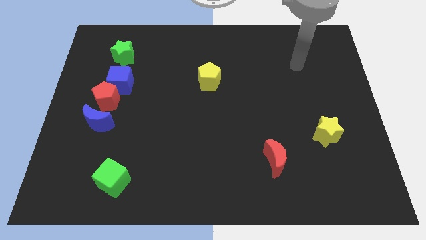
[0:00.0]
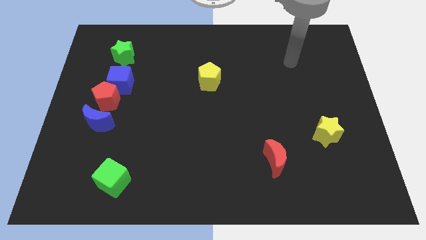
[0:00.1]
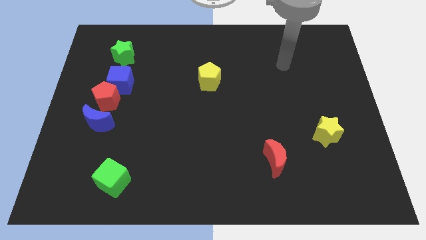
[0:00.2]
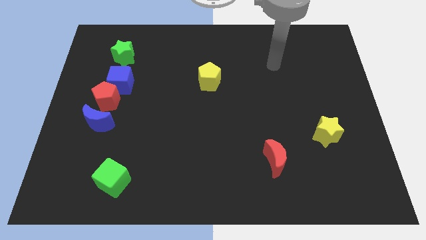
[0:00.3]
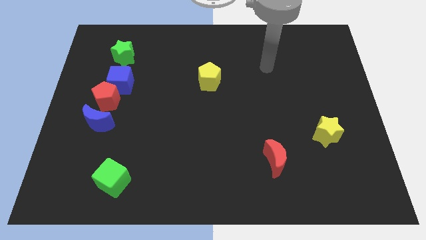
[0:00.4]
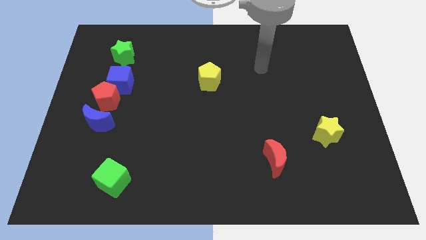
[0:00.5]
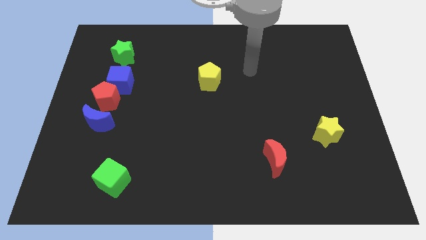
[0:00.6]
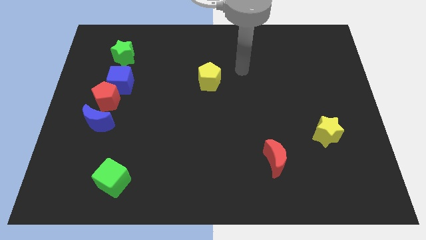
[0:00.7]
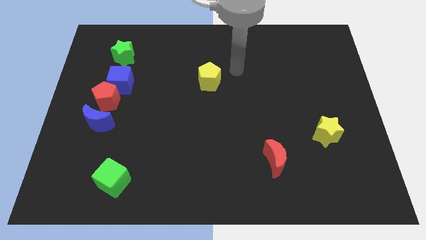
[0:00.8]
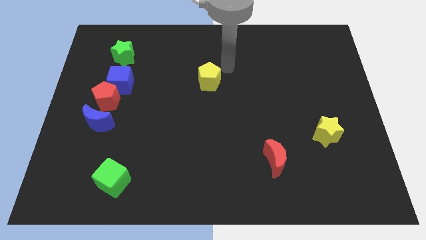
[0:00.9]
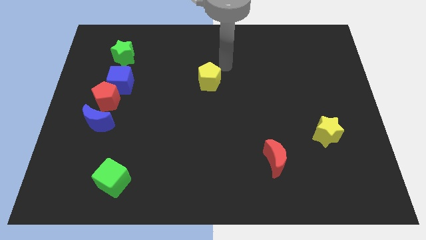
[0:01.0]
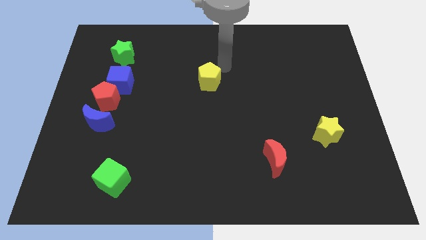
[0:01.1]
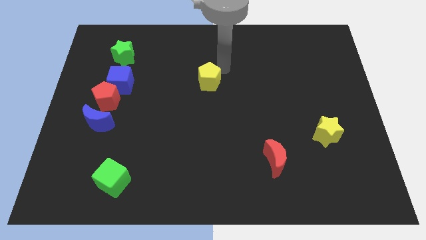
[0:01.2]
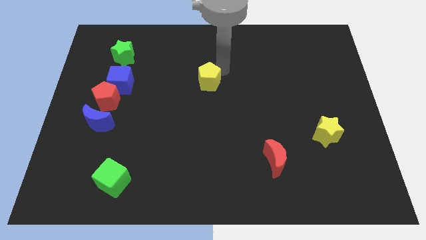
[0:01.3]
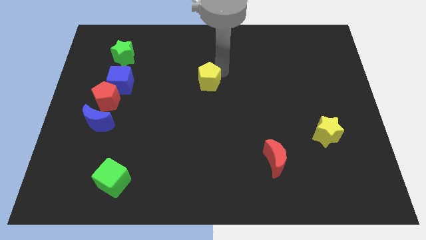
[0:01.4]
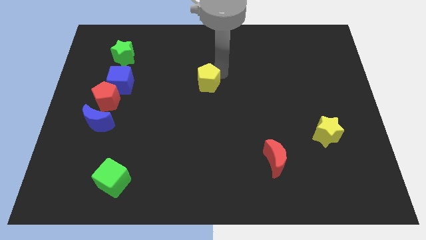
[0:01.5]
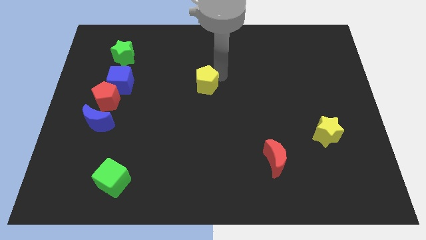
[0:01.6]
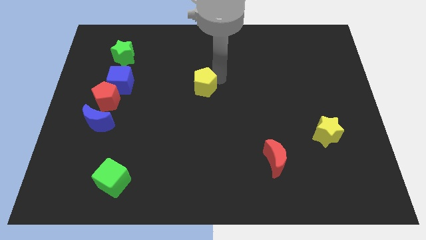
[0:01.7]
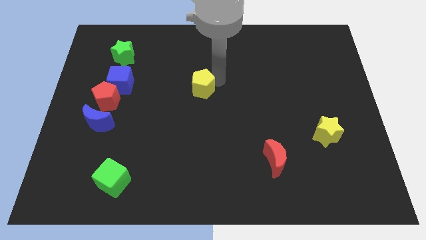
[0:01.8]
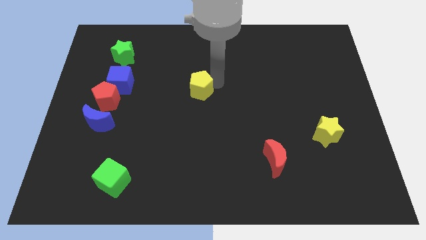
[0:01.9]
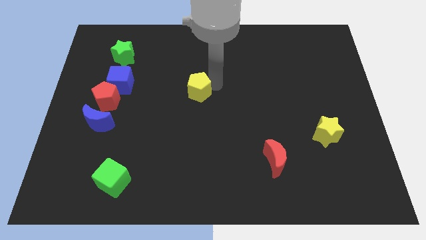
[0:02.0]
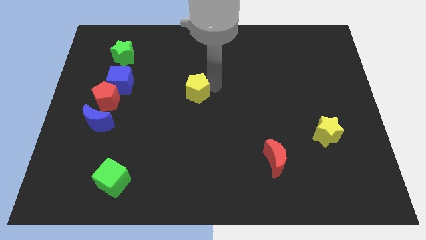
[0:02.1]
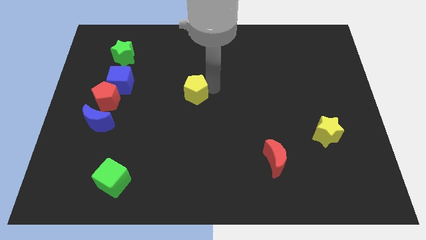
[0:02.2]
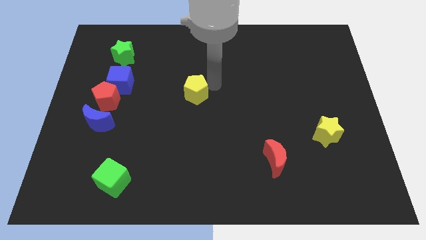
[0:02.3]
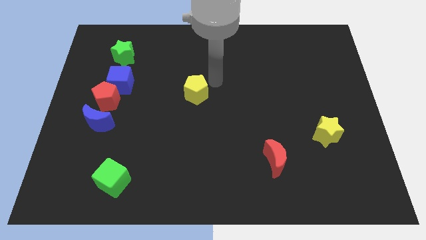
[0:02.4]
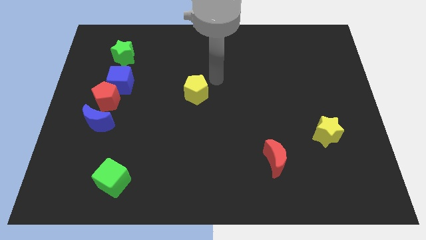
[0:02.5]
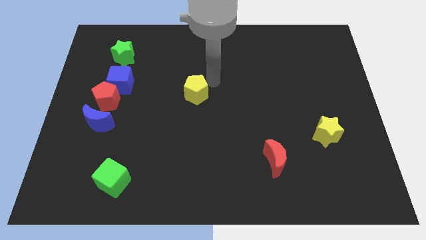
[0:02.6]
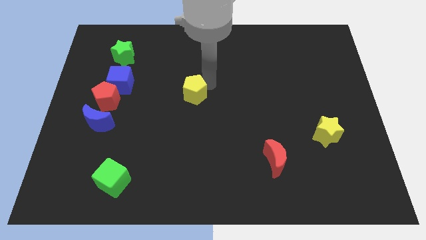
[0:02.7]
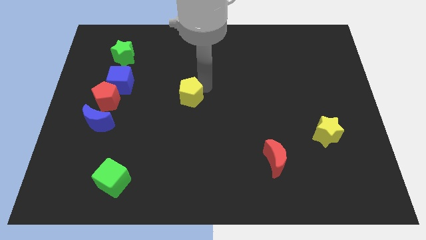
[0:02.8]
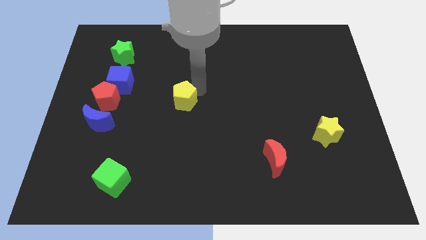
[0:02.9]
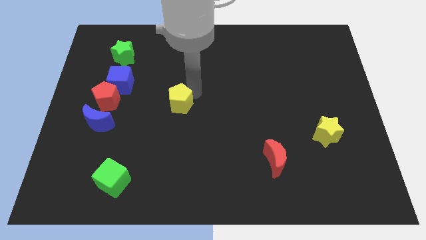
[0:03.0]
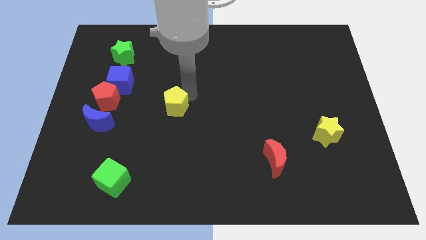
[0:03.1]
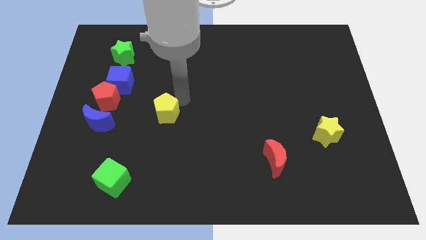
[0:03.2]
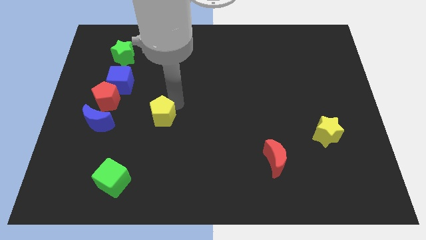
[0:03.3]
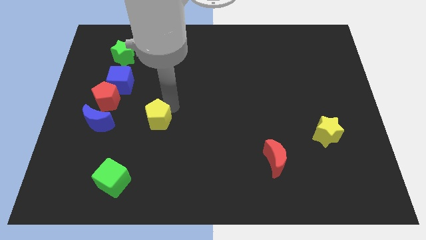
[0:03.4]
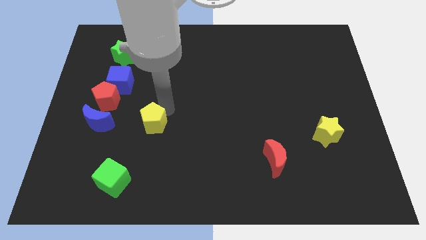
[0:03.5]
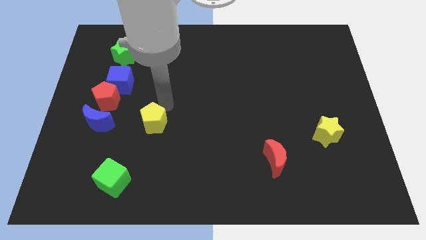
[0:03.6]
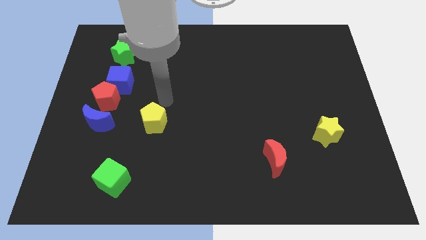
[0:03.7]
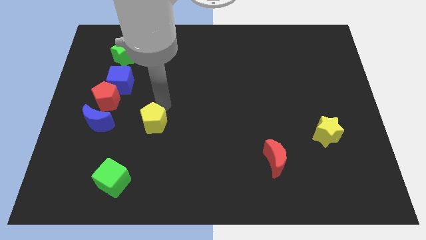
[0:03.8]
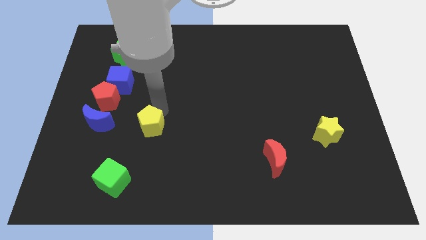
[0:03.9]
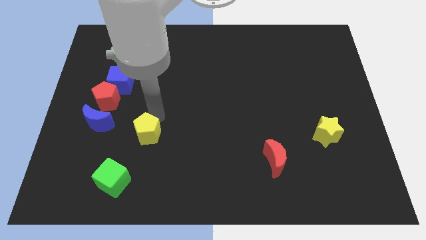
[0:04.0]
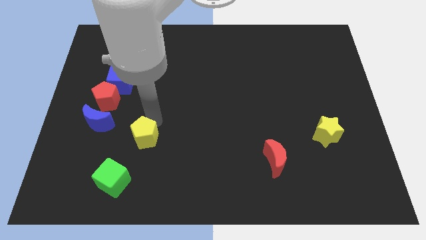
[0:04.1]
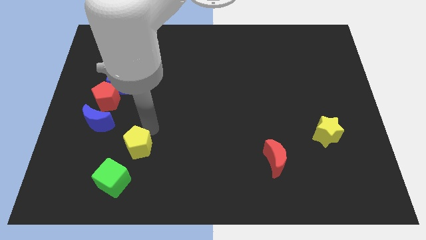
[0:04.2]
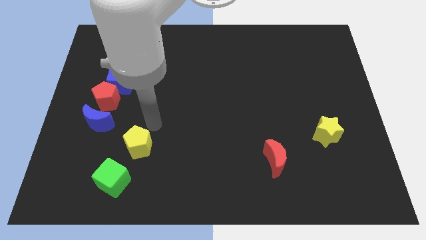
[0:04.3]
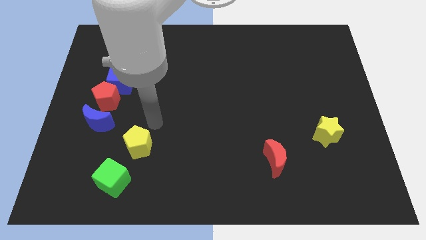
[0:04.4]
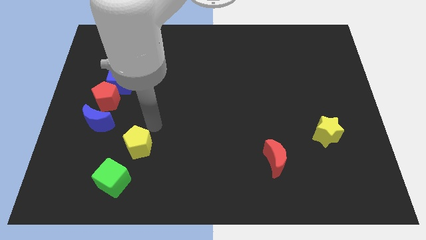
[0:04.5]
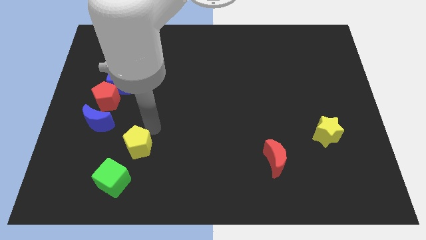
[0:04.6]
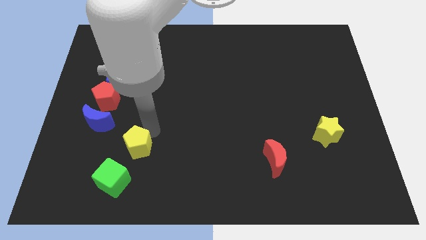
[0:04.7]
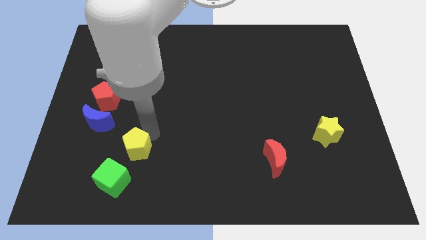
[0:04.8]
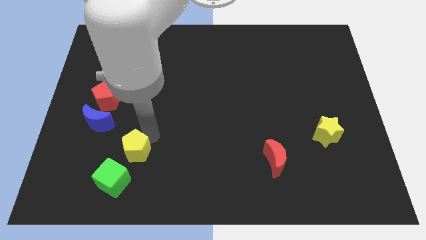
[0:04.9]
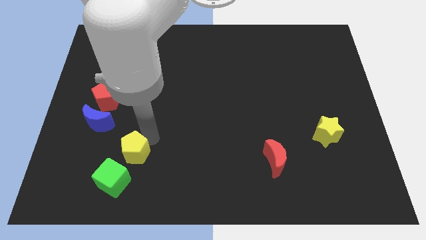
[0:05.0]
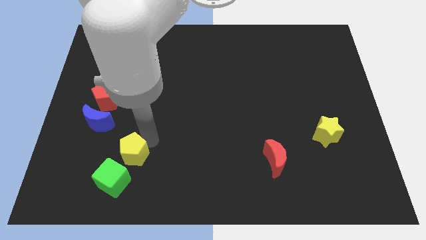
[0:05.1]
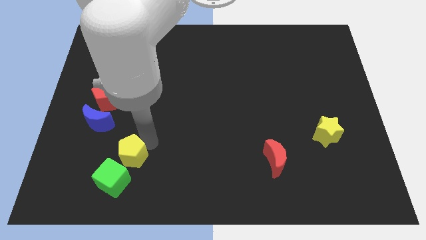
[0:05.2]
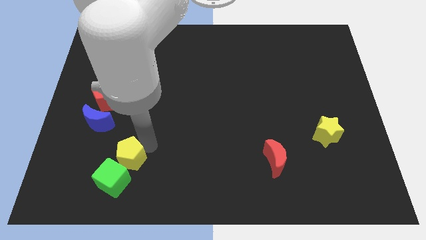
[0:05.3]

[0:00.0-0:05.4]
put the yellow pentagon towards the green cube

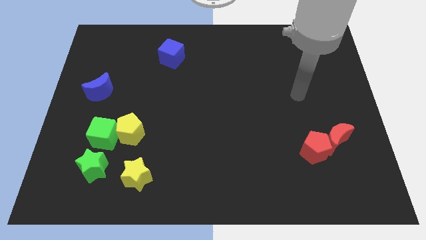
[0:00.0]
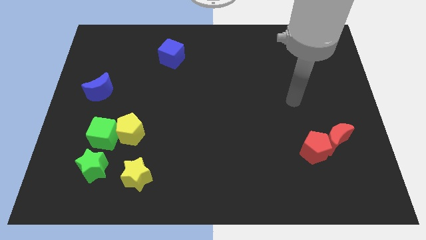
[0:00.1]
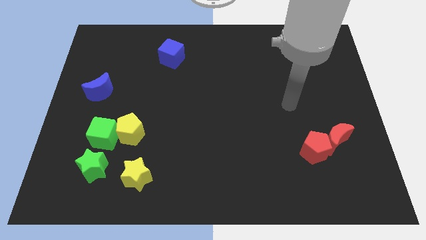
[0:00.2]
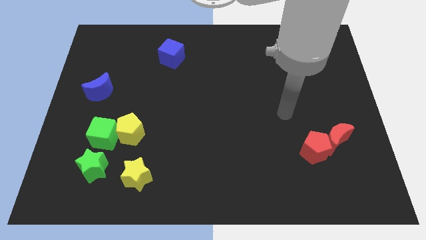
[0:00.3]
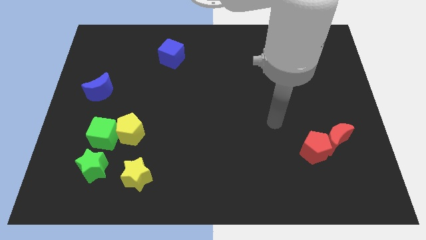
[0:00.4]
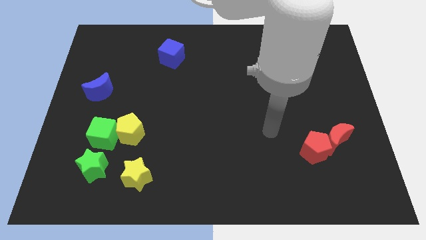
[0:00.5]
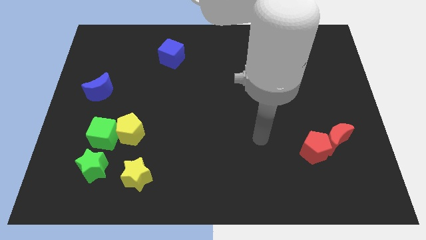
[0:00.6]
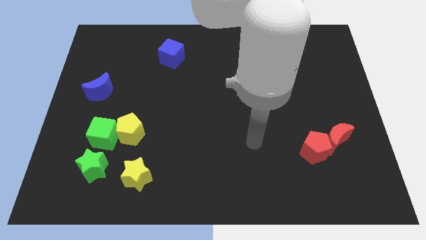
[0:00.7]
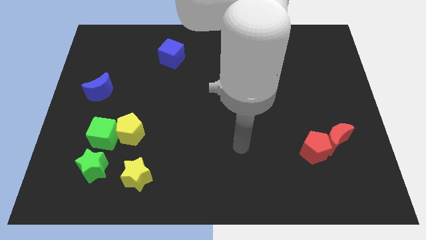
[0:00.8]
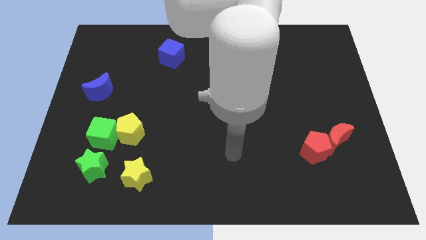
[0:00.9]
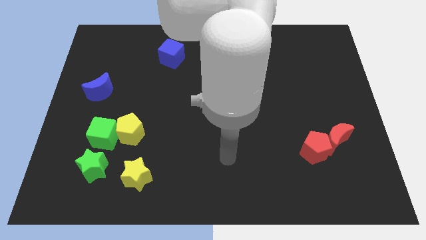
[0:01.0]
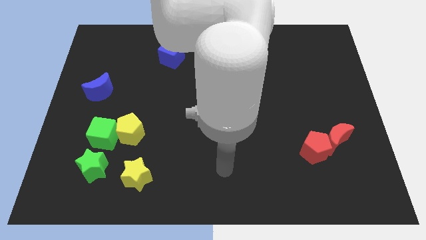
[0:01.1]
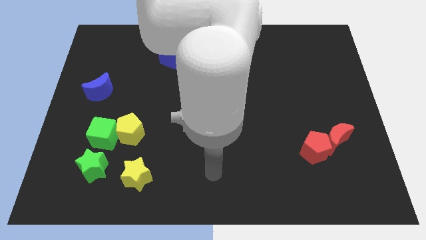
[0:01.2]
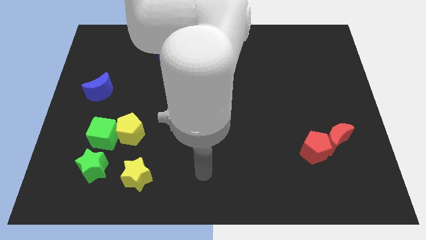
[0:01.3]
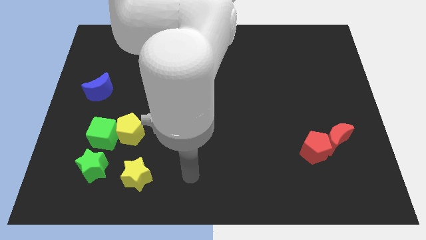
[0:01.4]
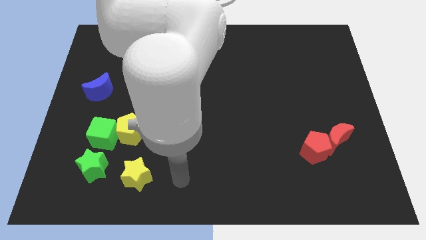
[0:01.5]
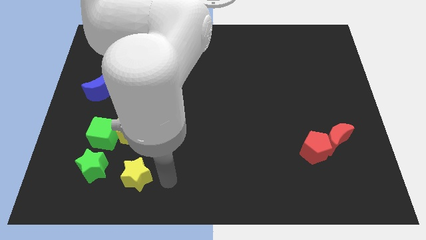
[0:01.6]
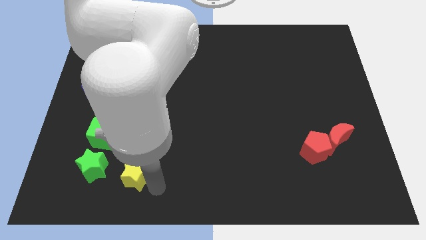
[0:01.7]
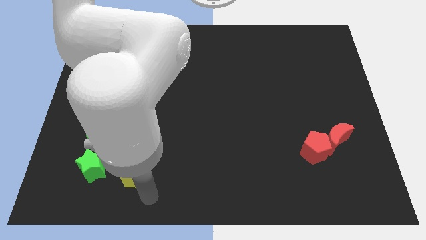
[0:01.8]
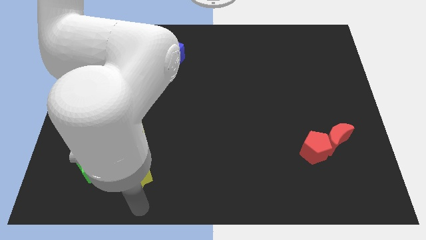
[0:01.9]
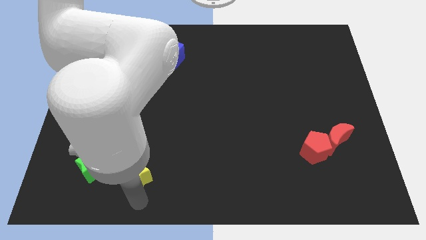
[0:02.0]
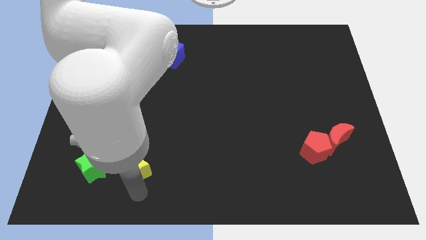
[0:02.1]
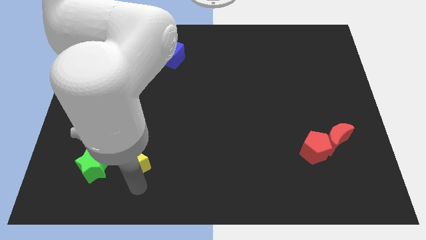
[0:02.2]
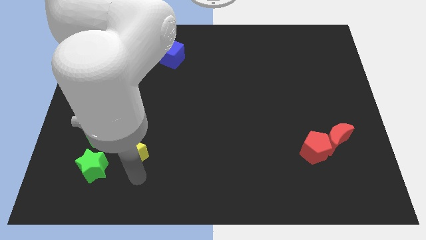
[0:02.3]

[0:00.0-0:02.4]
put the yellow star to the yellow pentagon

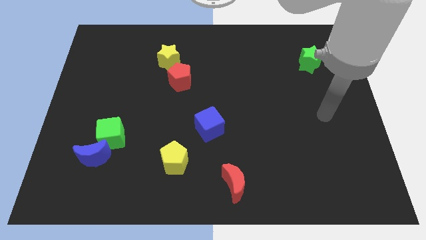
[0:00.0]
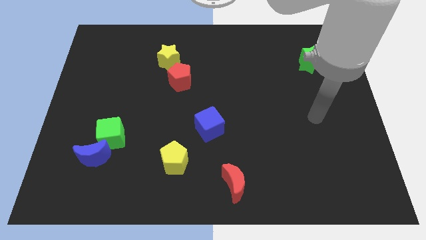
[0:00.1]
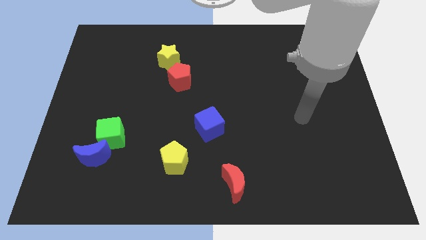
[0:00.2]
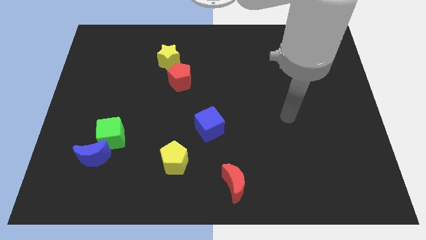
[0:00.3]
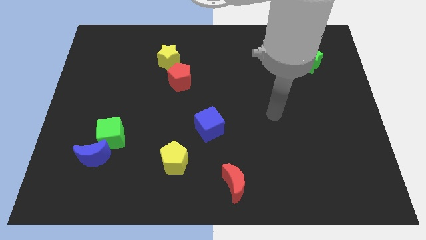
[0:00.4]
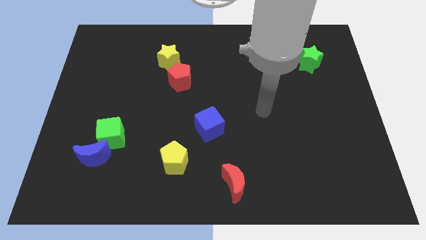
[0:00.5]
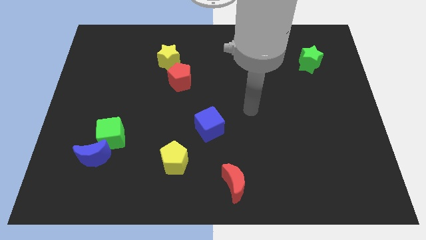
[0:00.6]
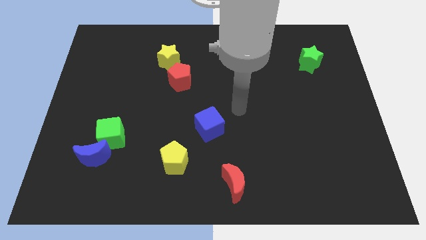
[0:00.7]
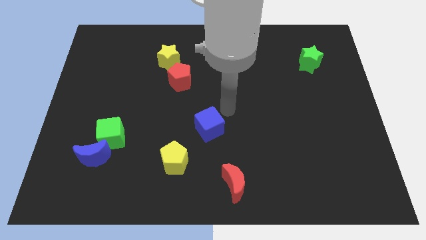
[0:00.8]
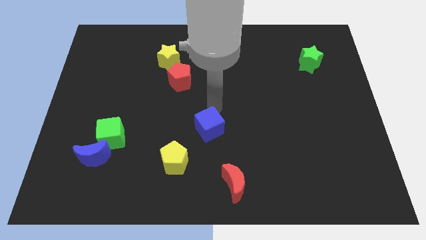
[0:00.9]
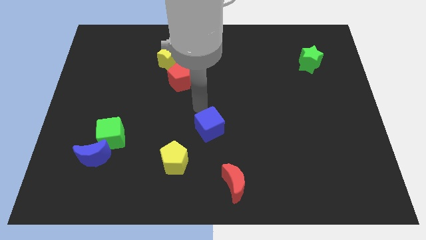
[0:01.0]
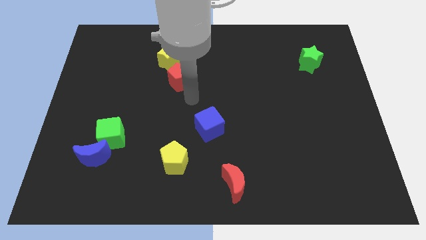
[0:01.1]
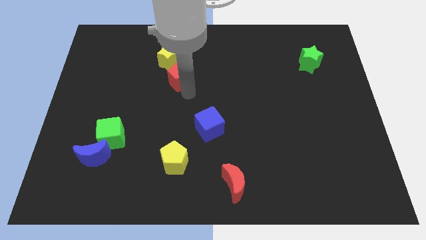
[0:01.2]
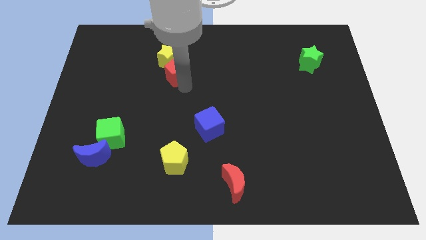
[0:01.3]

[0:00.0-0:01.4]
put the red pentagon next to the yellow star
